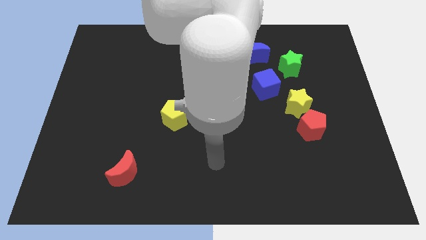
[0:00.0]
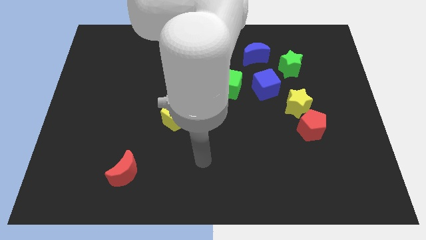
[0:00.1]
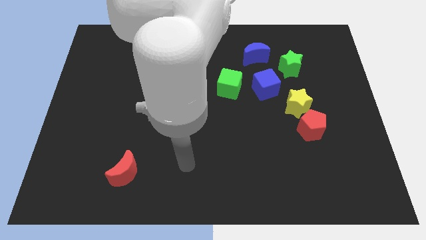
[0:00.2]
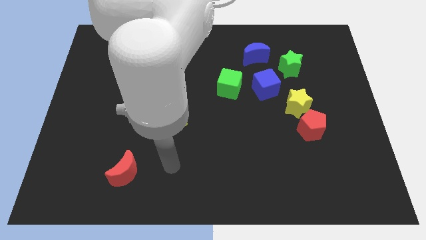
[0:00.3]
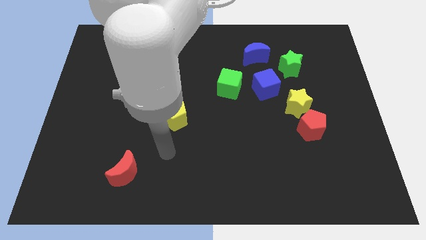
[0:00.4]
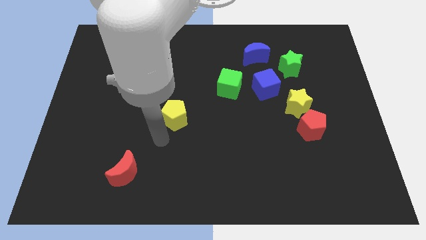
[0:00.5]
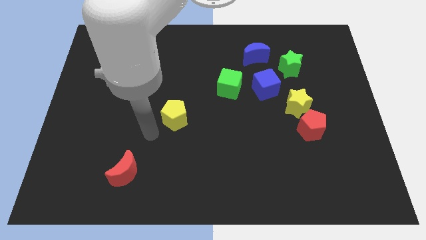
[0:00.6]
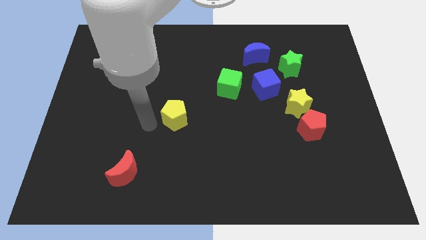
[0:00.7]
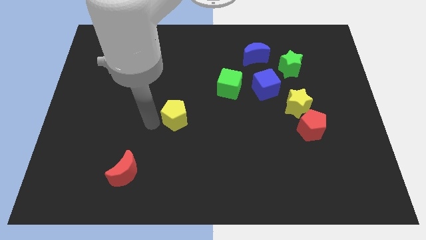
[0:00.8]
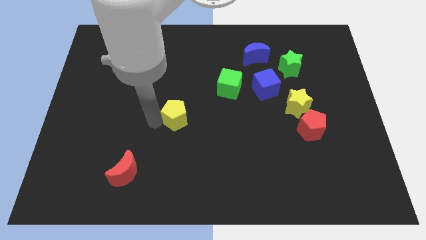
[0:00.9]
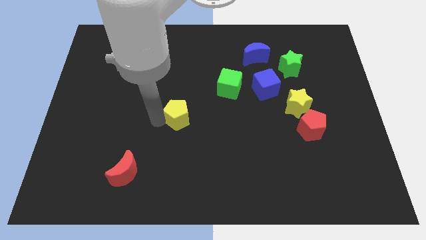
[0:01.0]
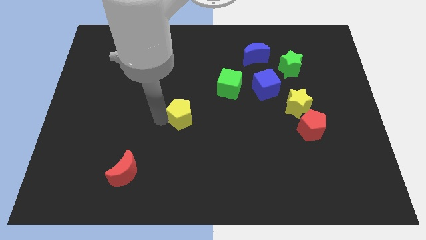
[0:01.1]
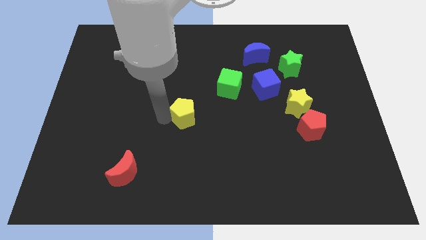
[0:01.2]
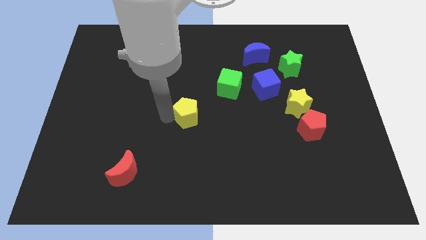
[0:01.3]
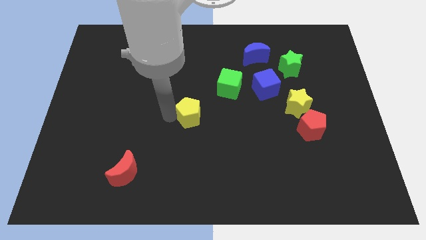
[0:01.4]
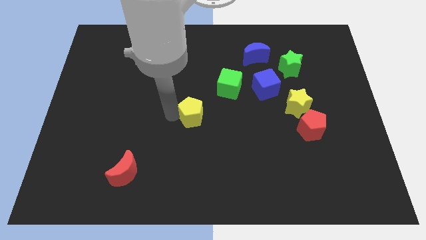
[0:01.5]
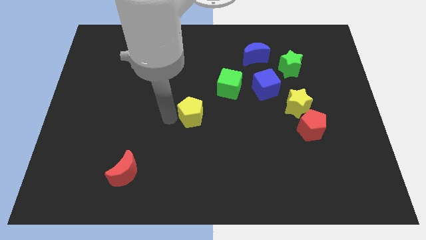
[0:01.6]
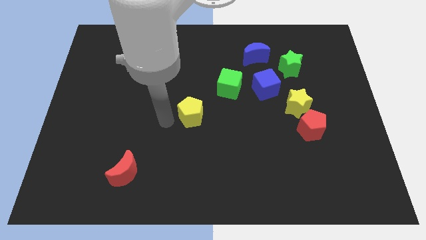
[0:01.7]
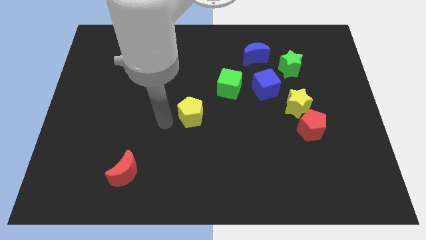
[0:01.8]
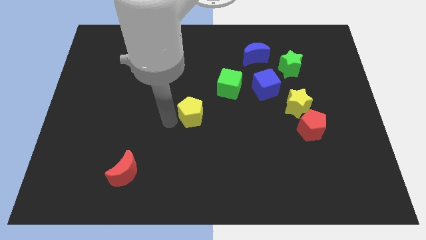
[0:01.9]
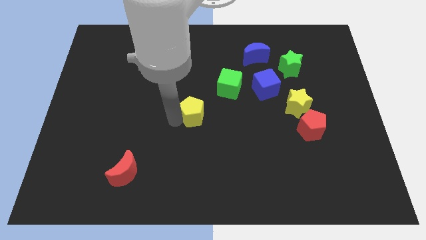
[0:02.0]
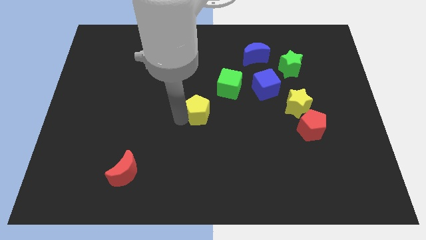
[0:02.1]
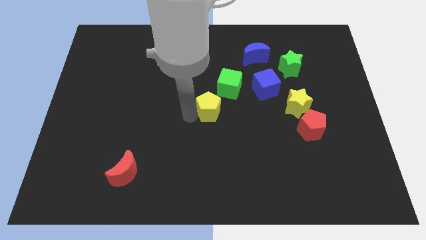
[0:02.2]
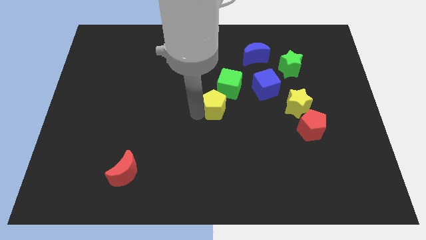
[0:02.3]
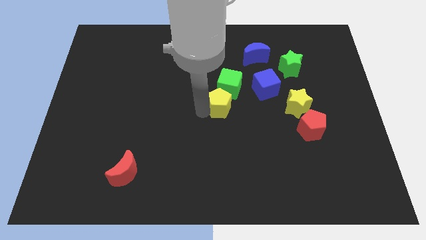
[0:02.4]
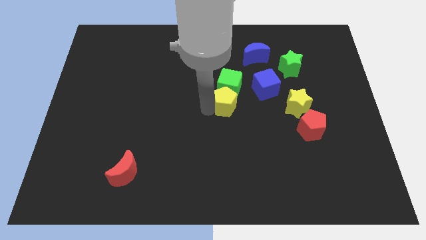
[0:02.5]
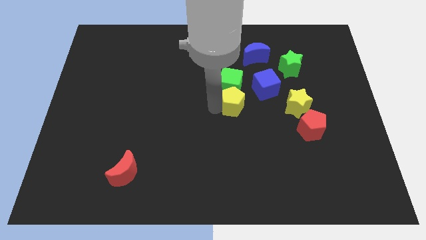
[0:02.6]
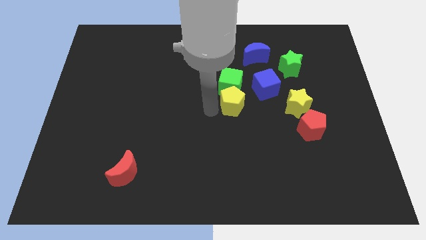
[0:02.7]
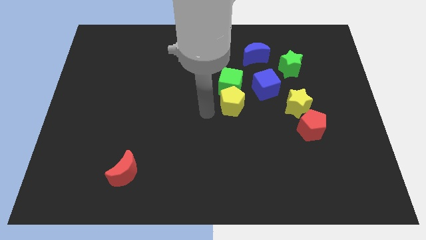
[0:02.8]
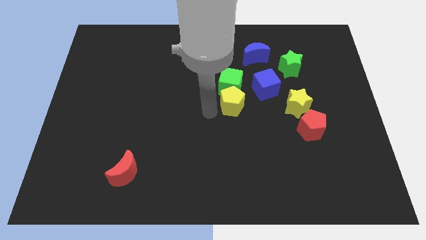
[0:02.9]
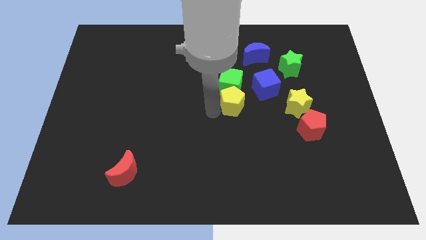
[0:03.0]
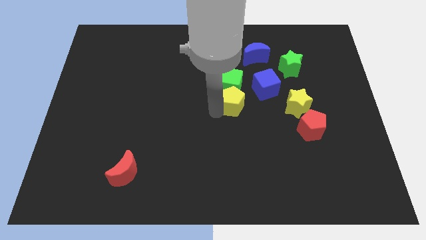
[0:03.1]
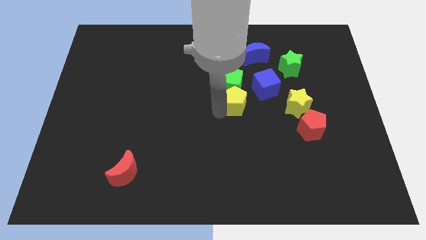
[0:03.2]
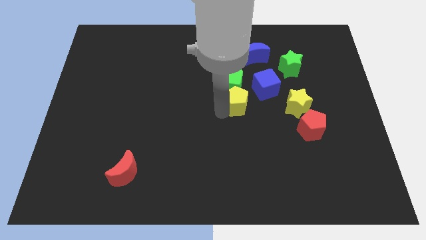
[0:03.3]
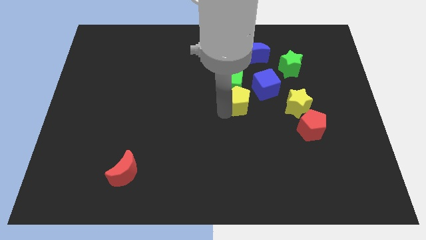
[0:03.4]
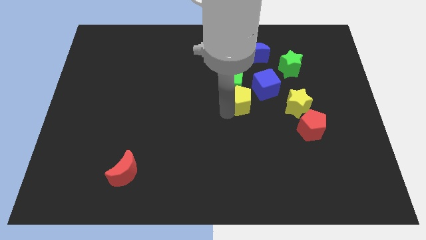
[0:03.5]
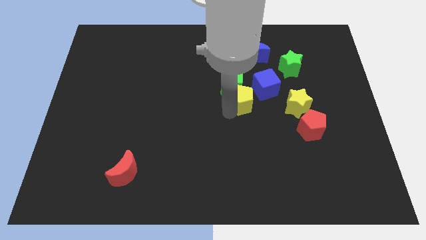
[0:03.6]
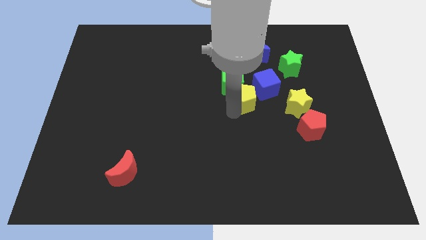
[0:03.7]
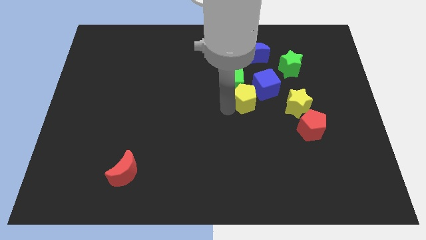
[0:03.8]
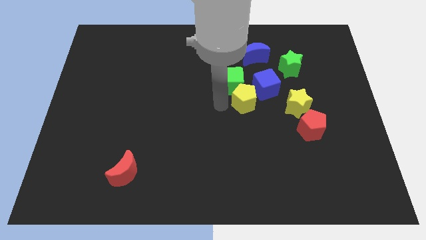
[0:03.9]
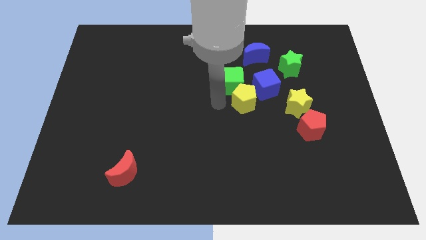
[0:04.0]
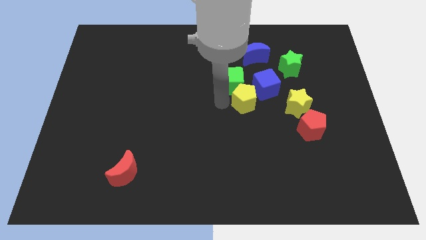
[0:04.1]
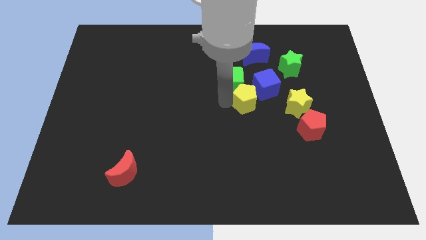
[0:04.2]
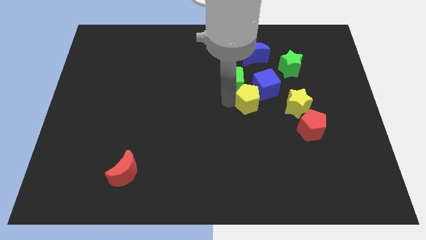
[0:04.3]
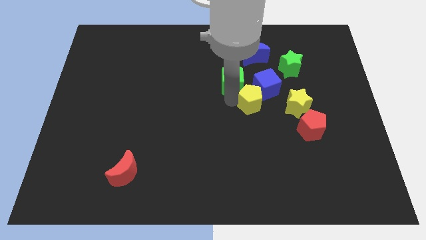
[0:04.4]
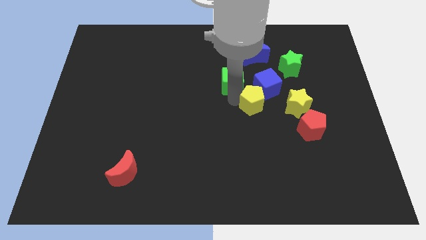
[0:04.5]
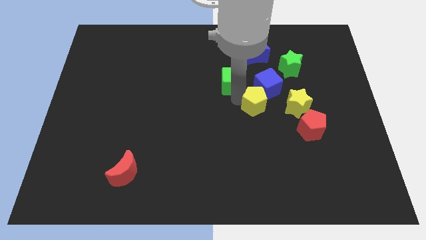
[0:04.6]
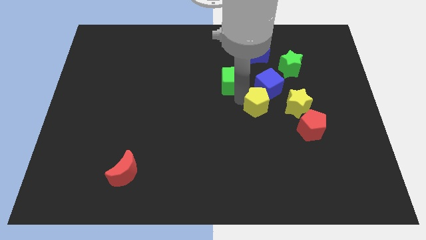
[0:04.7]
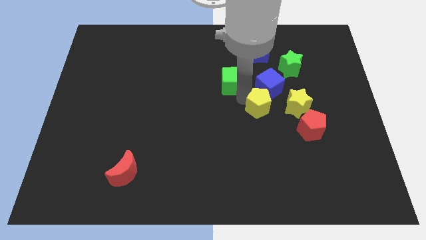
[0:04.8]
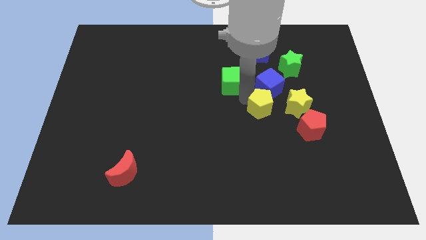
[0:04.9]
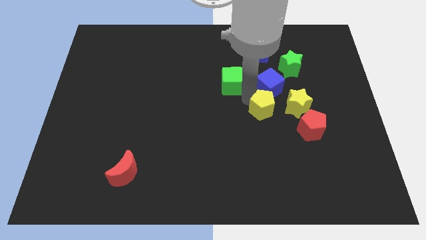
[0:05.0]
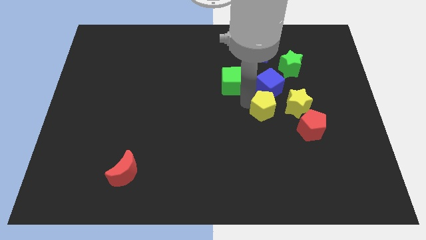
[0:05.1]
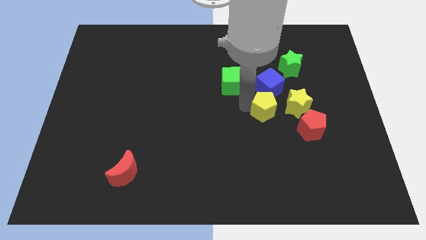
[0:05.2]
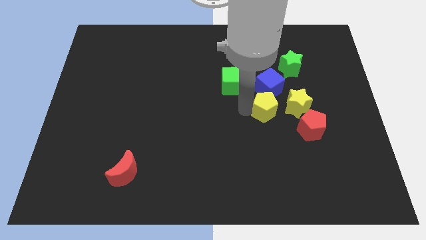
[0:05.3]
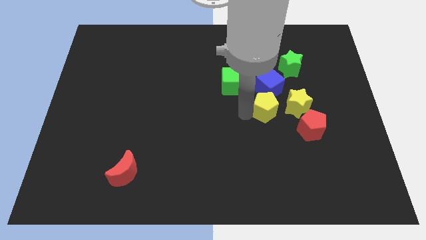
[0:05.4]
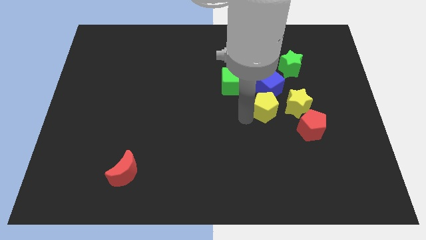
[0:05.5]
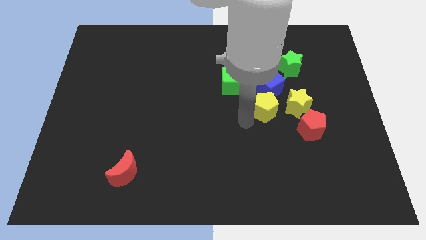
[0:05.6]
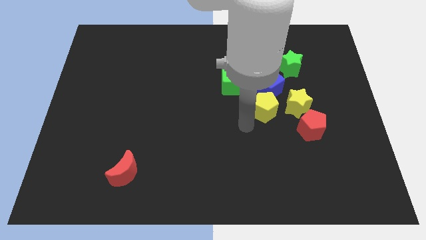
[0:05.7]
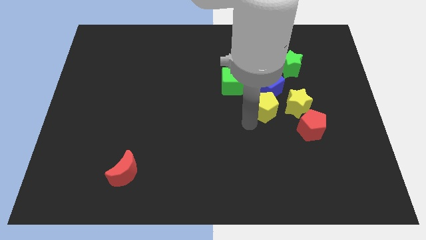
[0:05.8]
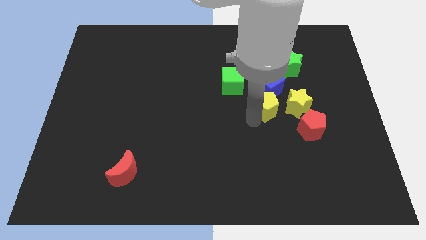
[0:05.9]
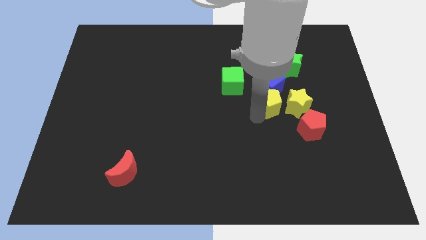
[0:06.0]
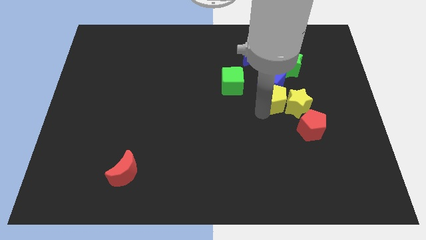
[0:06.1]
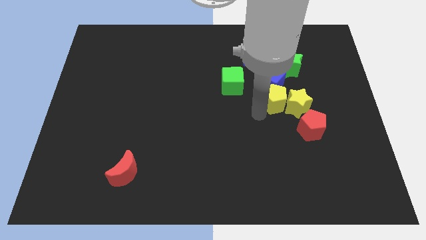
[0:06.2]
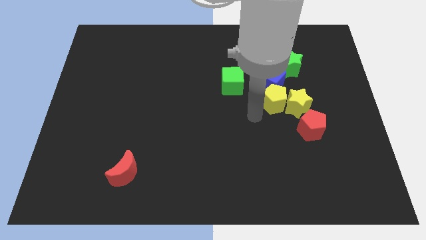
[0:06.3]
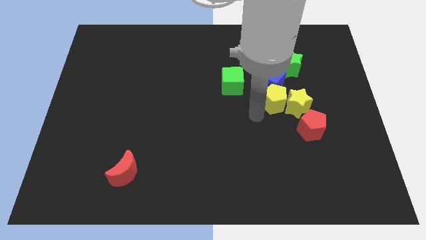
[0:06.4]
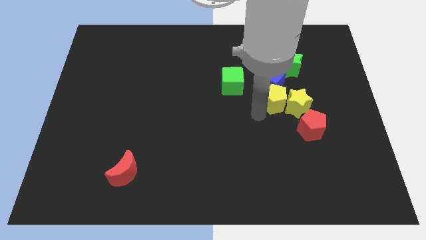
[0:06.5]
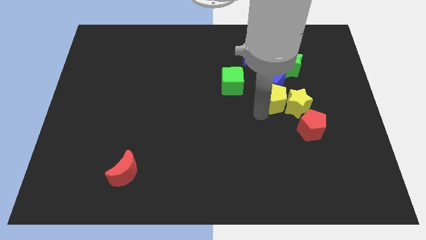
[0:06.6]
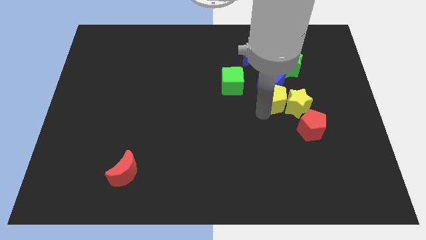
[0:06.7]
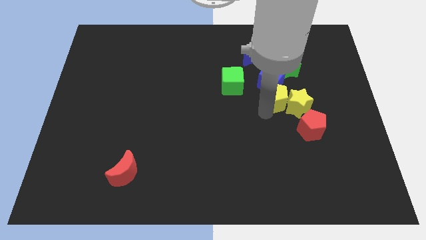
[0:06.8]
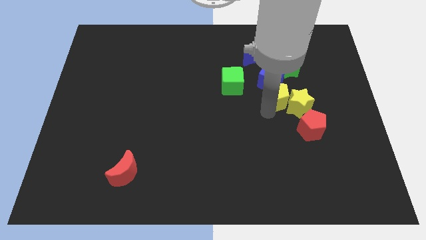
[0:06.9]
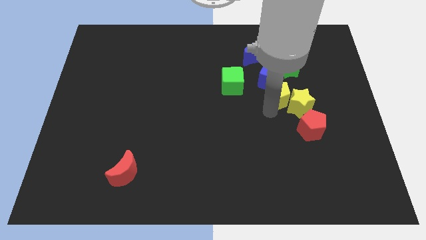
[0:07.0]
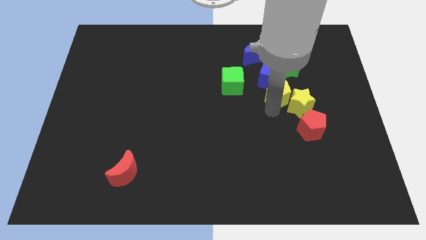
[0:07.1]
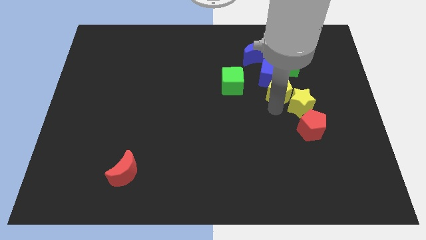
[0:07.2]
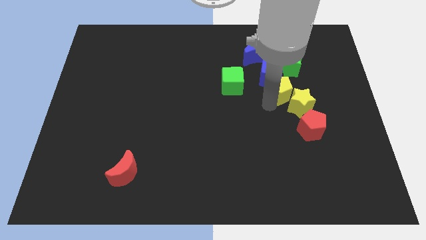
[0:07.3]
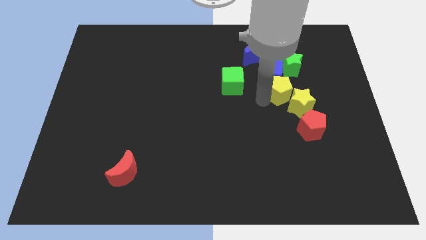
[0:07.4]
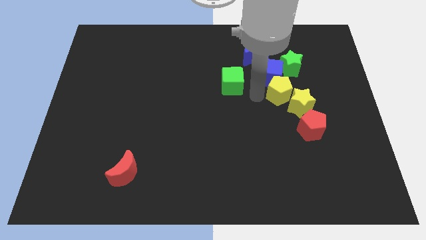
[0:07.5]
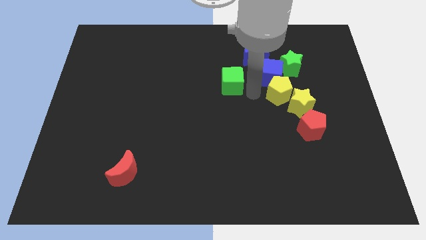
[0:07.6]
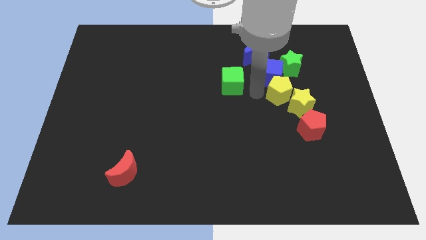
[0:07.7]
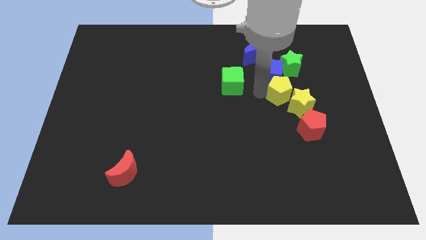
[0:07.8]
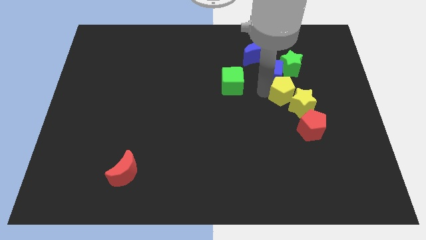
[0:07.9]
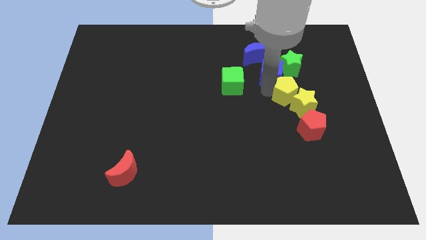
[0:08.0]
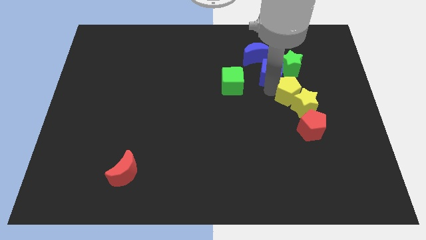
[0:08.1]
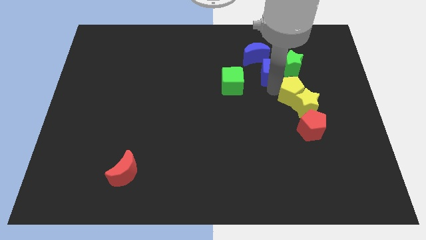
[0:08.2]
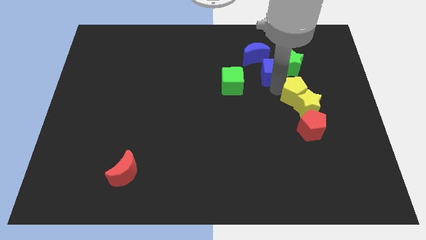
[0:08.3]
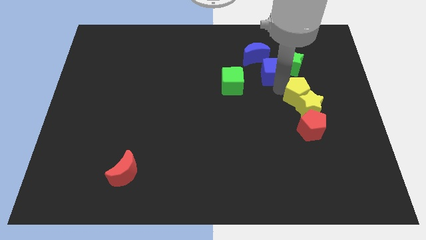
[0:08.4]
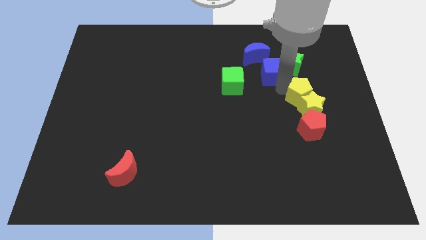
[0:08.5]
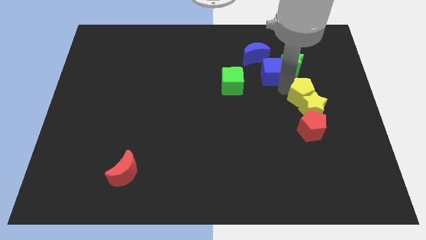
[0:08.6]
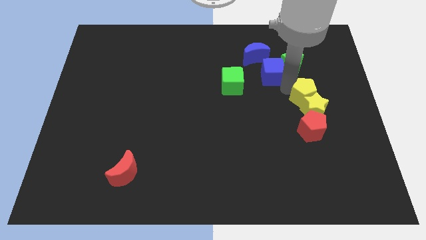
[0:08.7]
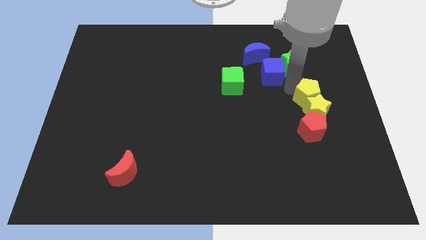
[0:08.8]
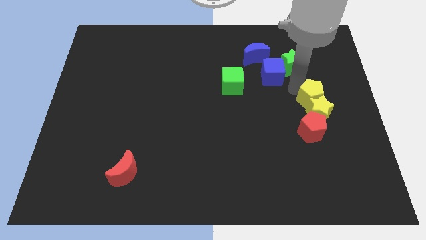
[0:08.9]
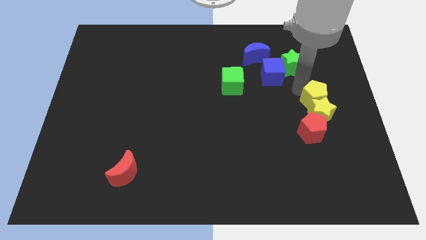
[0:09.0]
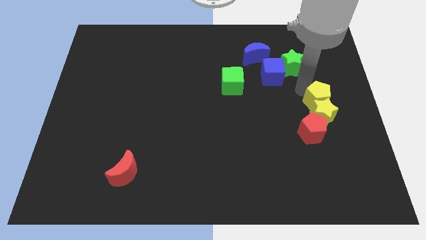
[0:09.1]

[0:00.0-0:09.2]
slide the yellow pentagon to the right side
